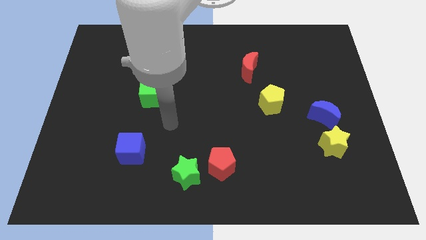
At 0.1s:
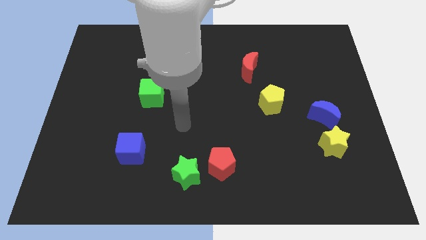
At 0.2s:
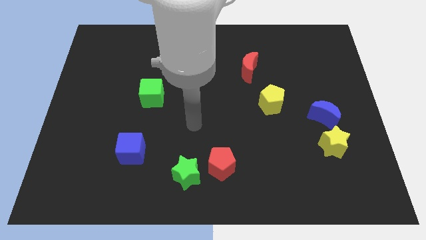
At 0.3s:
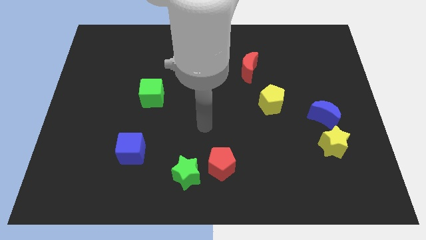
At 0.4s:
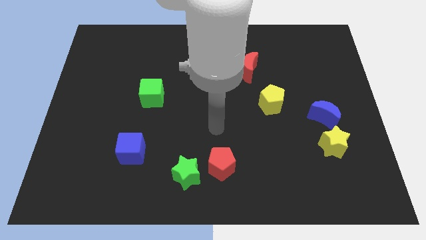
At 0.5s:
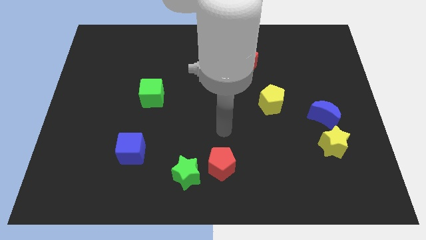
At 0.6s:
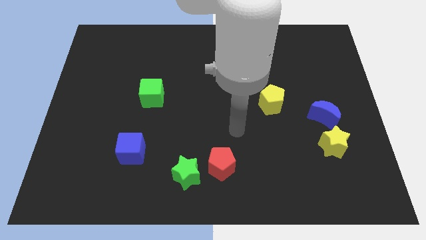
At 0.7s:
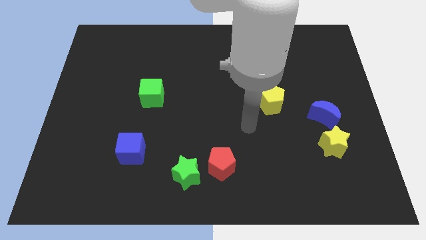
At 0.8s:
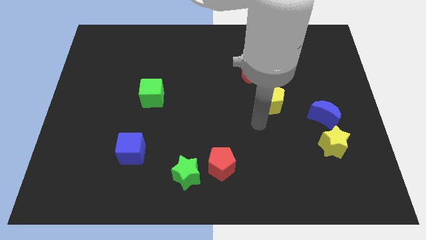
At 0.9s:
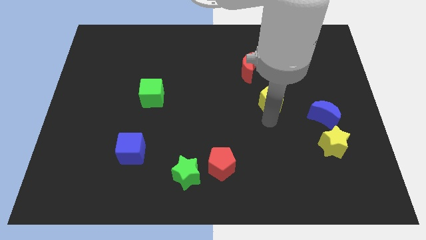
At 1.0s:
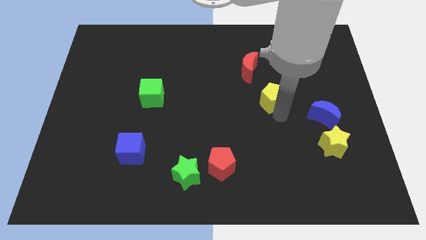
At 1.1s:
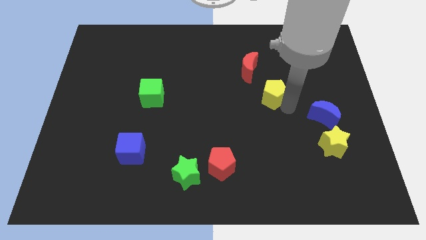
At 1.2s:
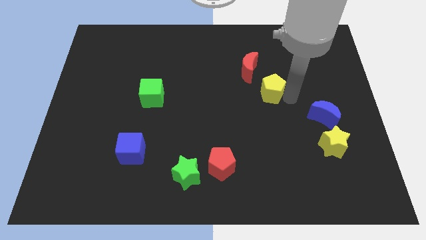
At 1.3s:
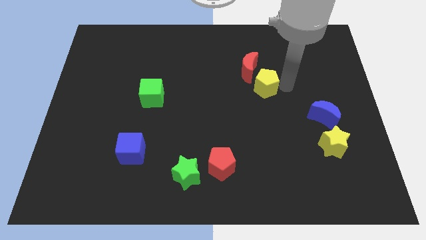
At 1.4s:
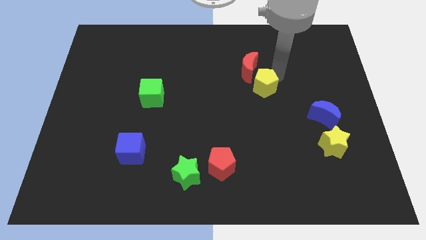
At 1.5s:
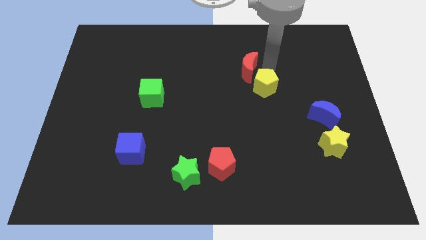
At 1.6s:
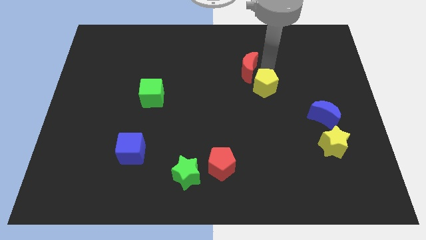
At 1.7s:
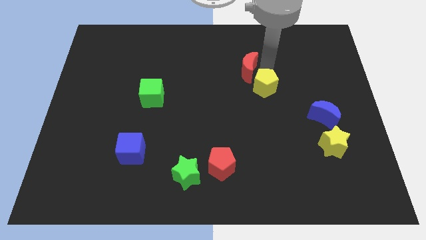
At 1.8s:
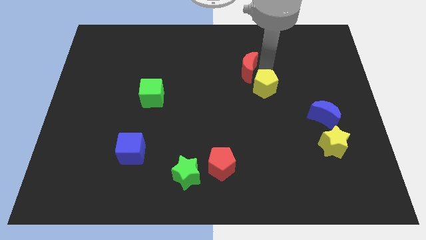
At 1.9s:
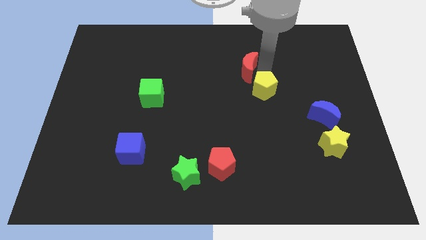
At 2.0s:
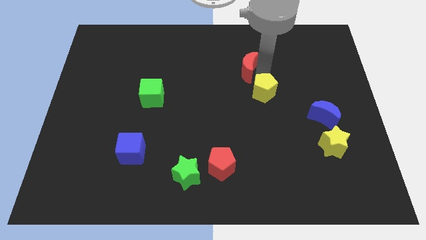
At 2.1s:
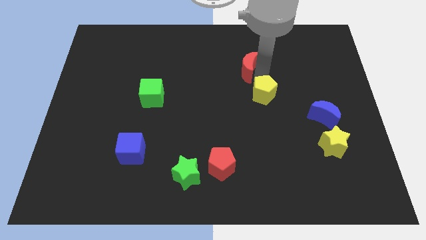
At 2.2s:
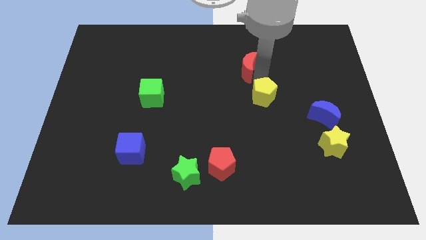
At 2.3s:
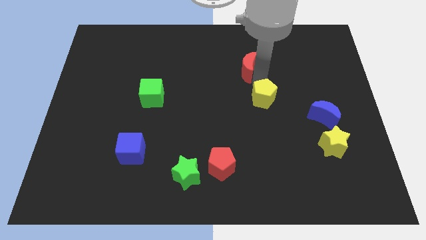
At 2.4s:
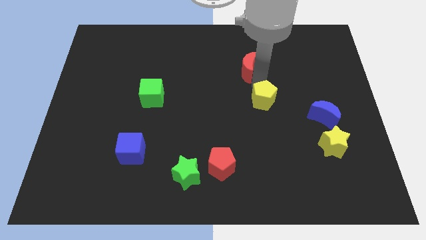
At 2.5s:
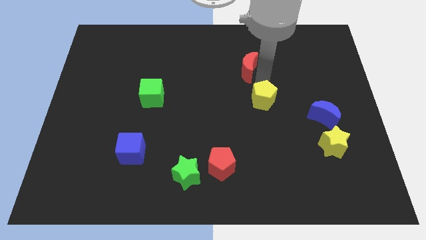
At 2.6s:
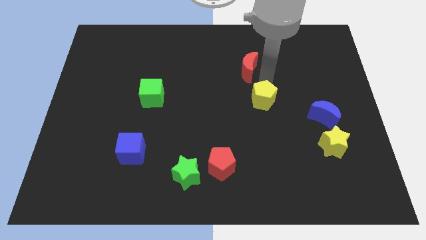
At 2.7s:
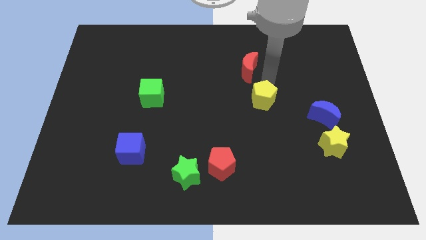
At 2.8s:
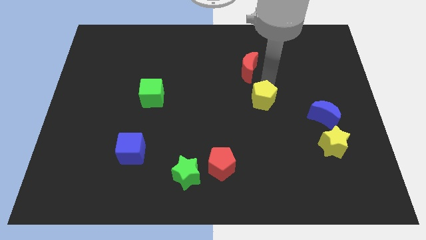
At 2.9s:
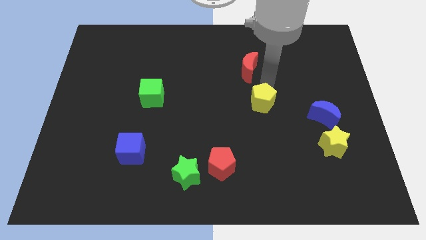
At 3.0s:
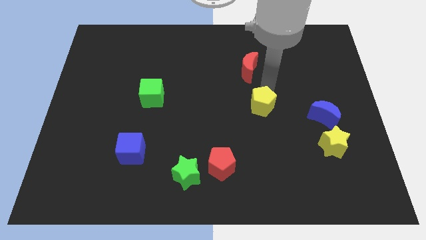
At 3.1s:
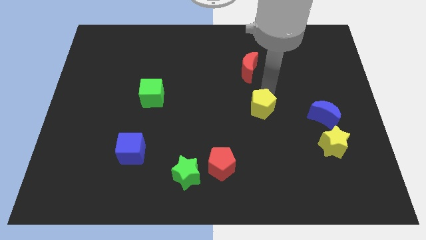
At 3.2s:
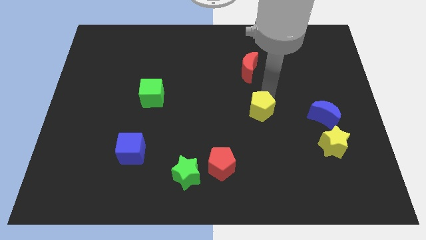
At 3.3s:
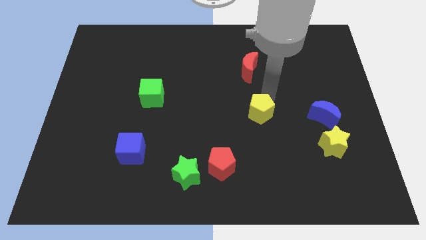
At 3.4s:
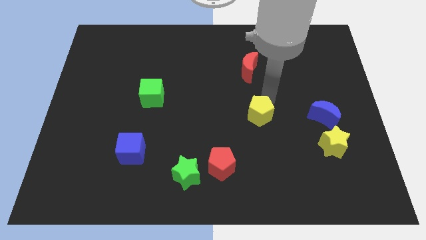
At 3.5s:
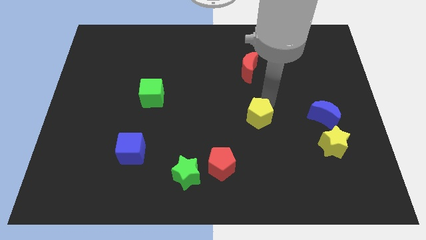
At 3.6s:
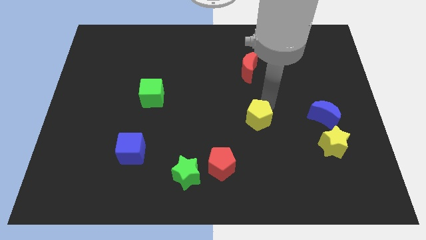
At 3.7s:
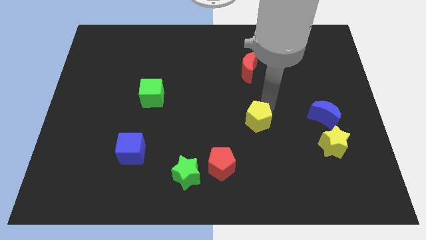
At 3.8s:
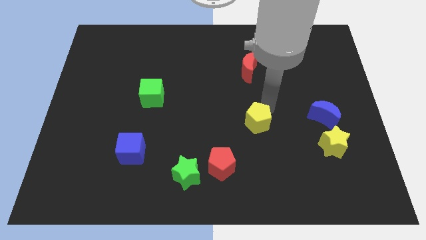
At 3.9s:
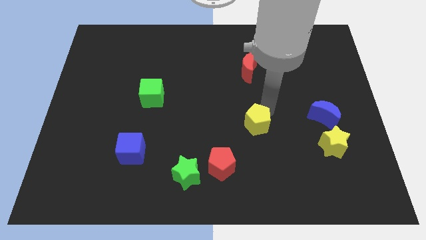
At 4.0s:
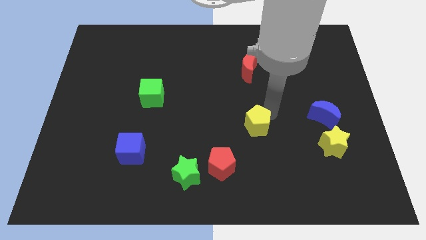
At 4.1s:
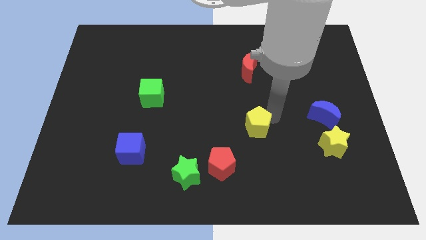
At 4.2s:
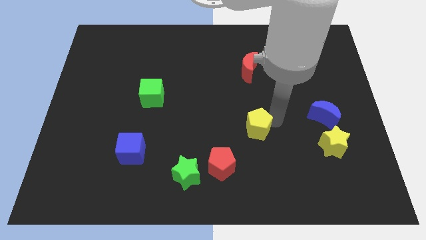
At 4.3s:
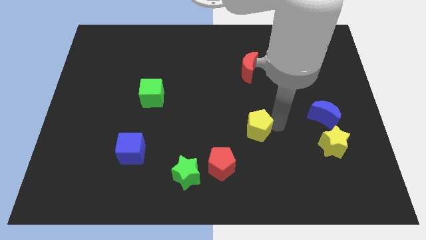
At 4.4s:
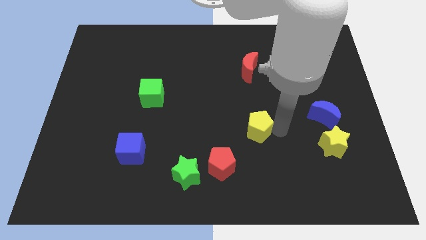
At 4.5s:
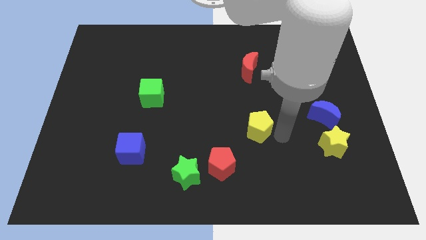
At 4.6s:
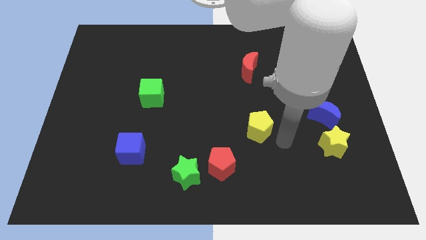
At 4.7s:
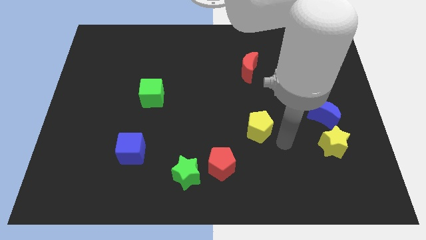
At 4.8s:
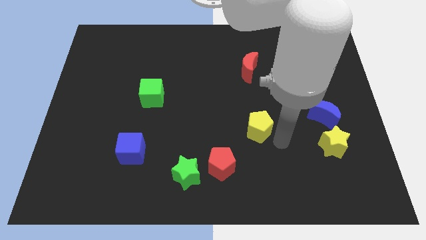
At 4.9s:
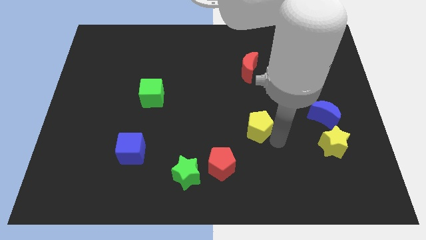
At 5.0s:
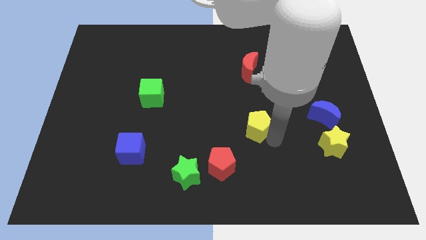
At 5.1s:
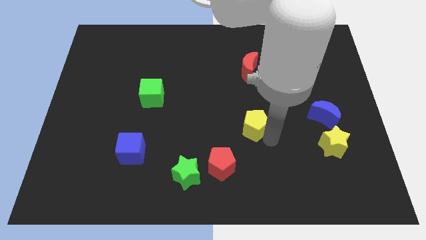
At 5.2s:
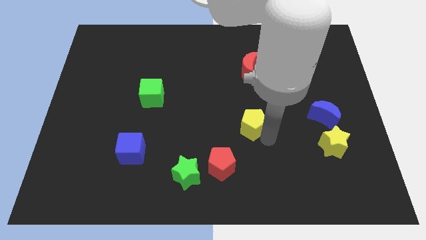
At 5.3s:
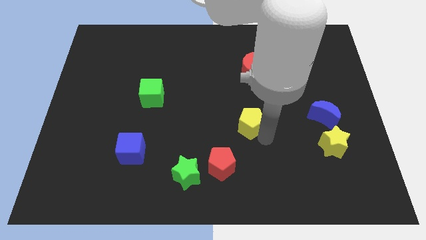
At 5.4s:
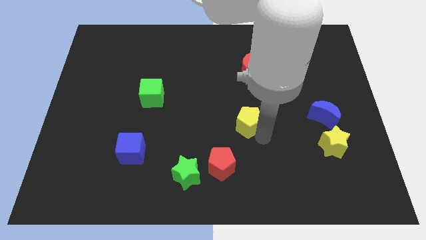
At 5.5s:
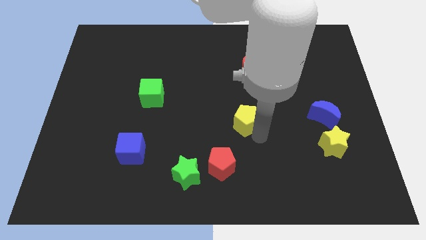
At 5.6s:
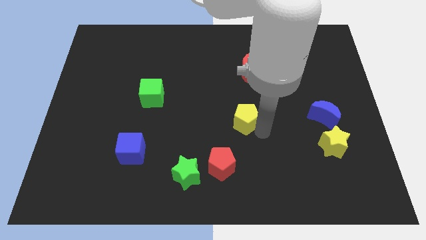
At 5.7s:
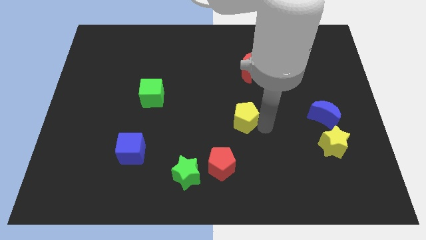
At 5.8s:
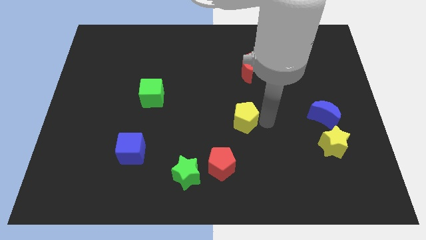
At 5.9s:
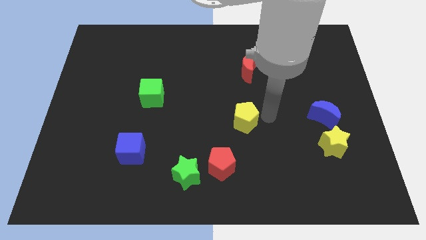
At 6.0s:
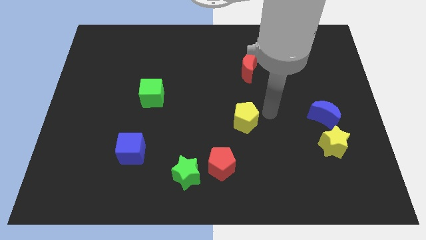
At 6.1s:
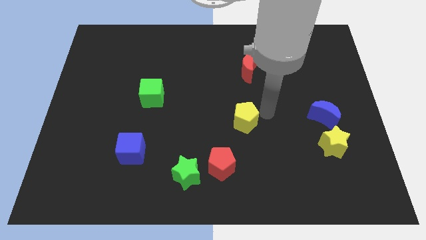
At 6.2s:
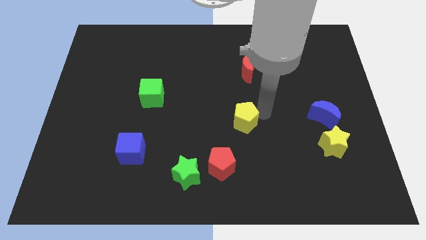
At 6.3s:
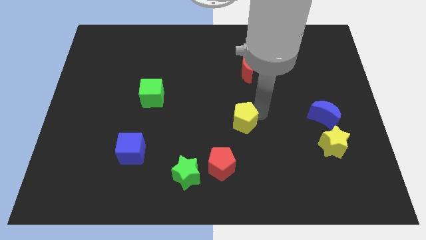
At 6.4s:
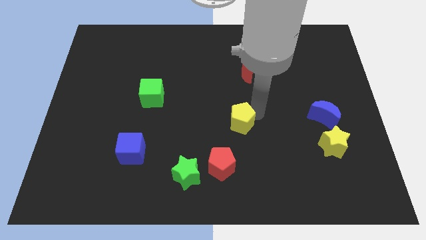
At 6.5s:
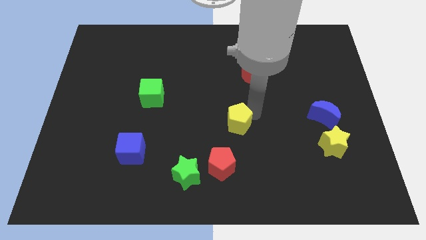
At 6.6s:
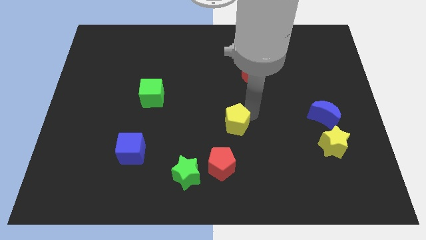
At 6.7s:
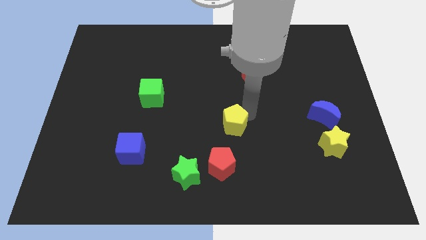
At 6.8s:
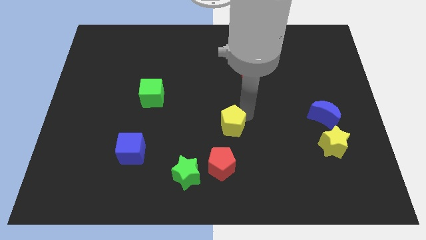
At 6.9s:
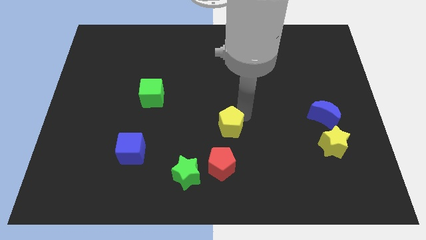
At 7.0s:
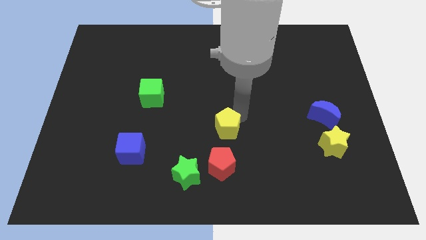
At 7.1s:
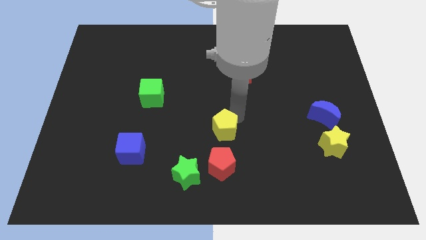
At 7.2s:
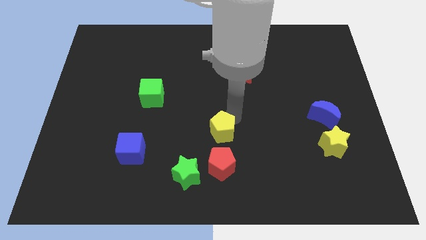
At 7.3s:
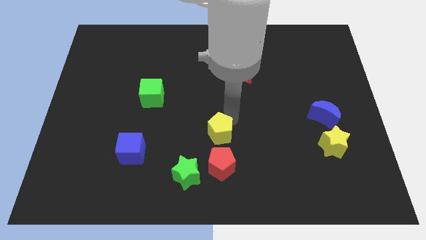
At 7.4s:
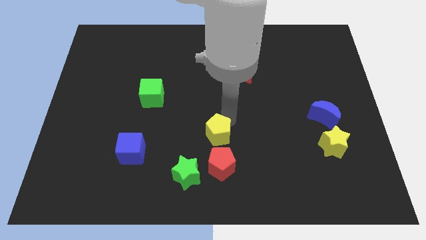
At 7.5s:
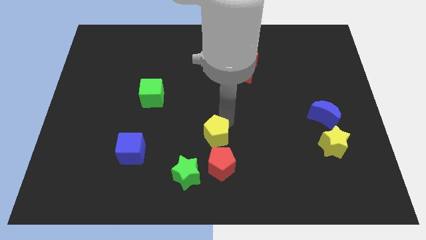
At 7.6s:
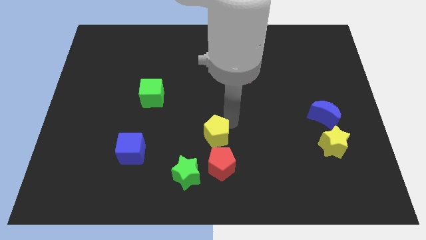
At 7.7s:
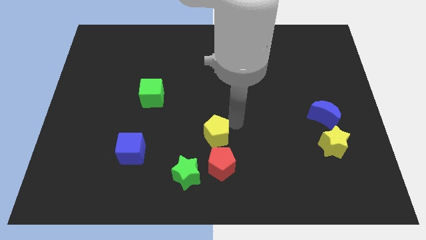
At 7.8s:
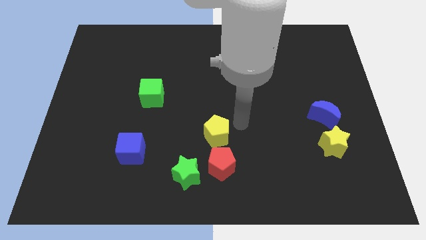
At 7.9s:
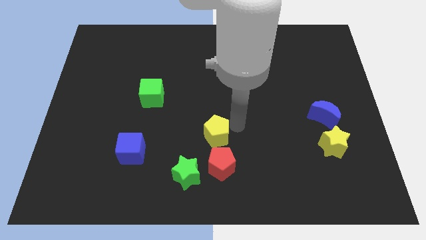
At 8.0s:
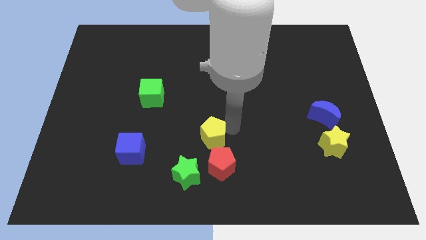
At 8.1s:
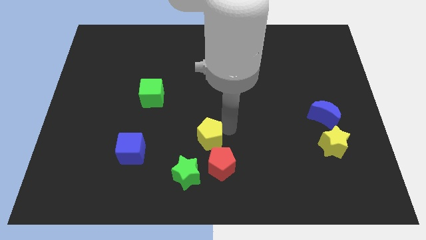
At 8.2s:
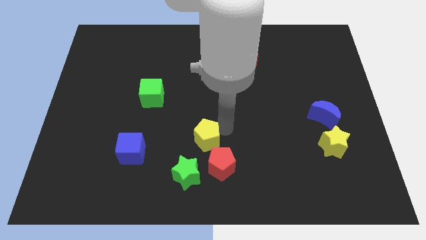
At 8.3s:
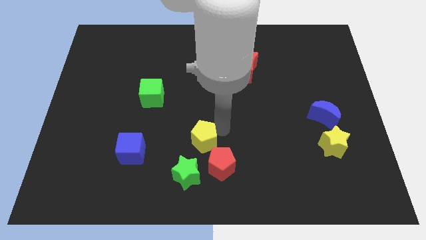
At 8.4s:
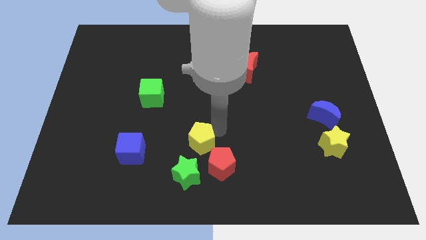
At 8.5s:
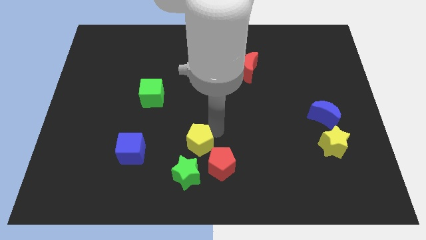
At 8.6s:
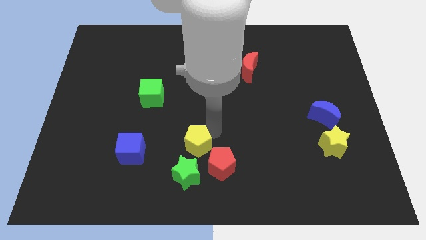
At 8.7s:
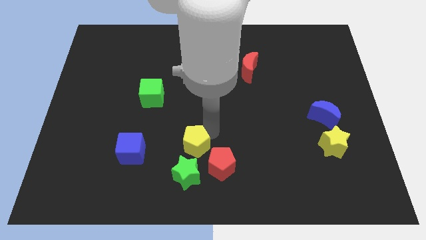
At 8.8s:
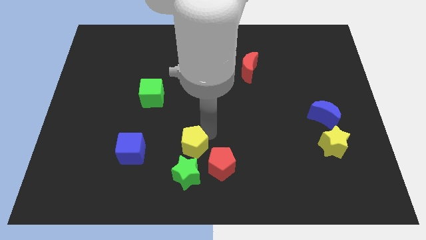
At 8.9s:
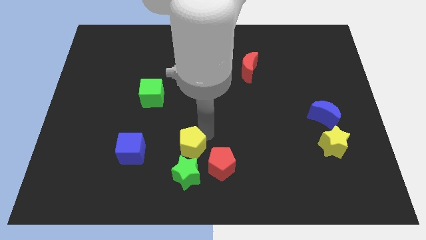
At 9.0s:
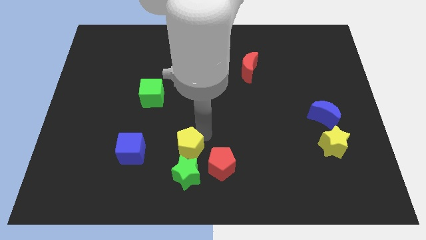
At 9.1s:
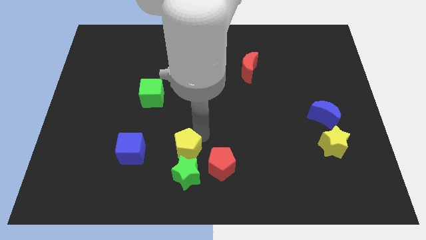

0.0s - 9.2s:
push the yellow pentagon next to the green star
